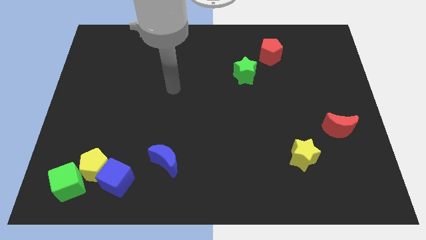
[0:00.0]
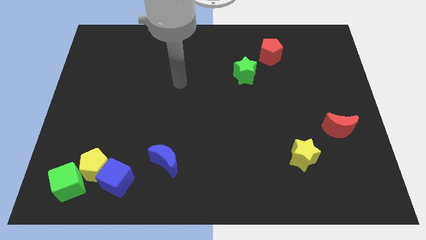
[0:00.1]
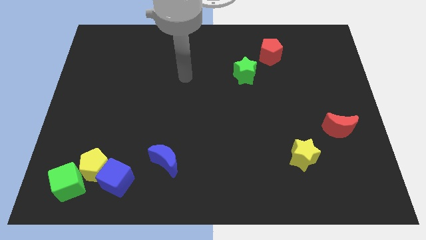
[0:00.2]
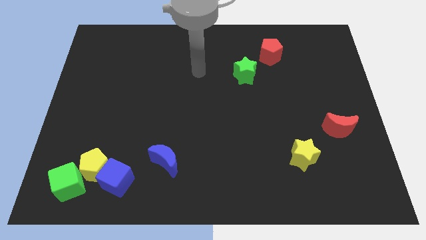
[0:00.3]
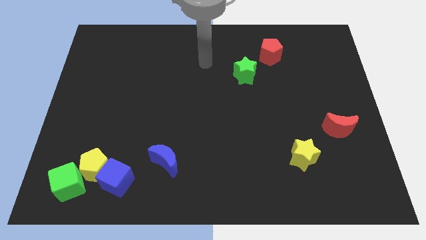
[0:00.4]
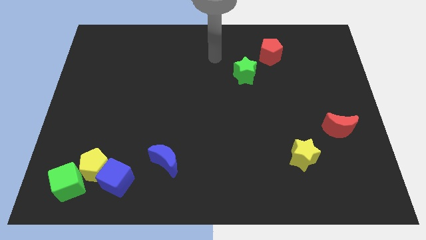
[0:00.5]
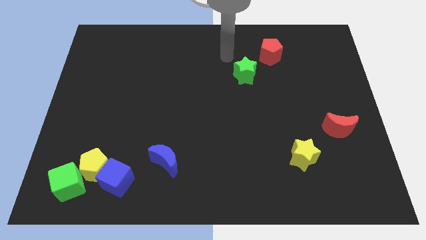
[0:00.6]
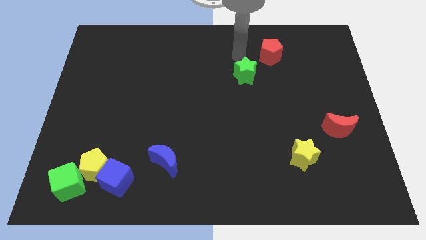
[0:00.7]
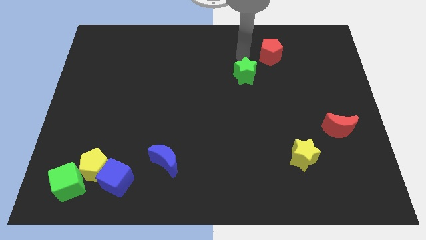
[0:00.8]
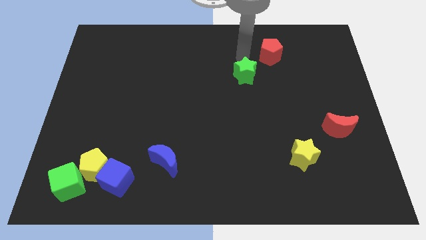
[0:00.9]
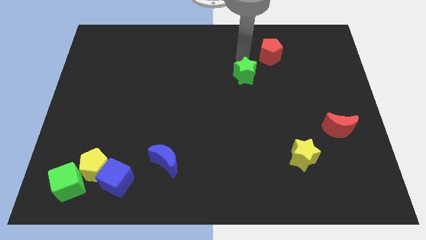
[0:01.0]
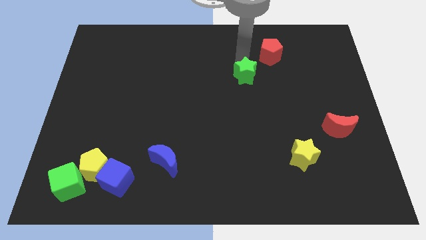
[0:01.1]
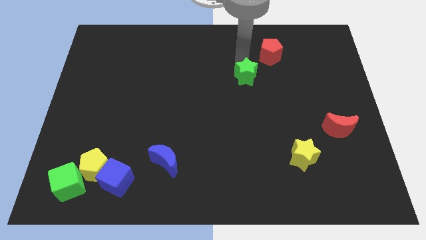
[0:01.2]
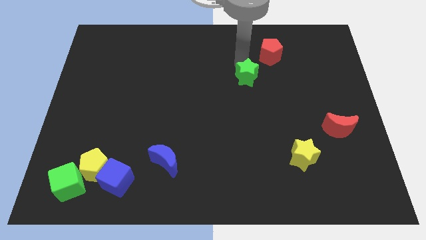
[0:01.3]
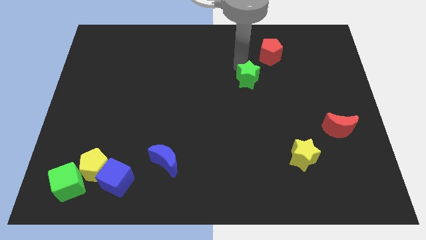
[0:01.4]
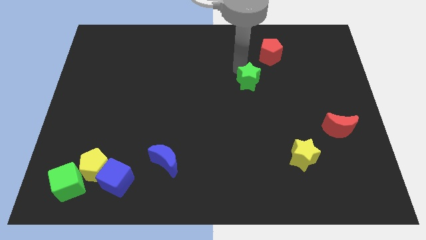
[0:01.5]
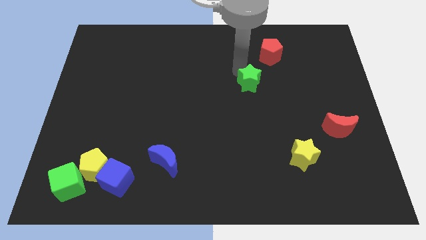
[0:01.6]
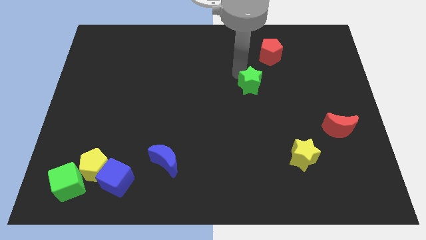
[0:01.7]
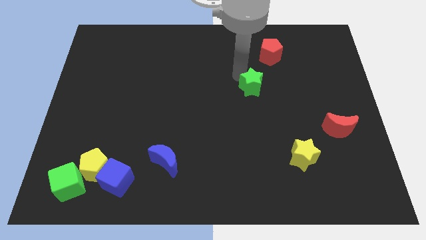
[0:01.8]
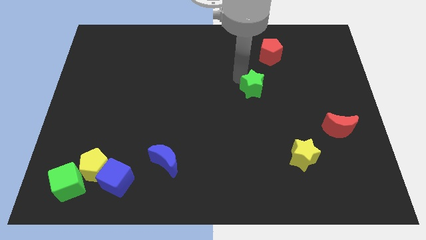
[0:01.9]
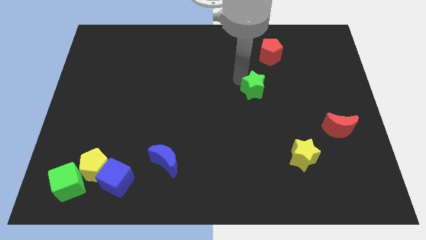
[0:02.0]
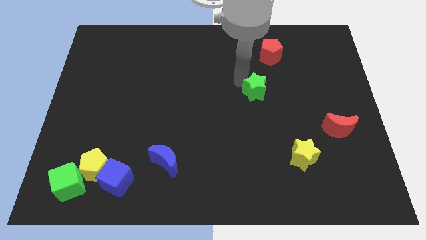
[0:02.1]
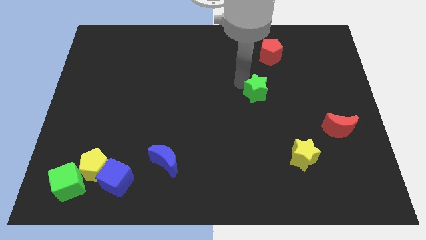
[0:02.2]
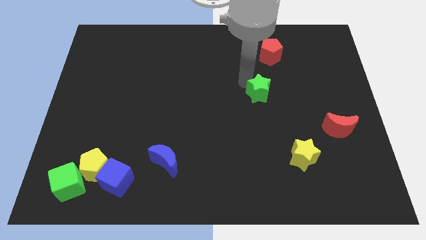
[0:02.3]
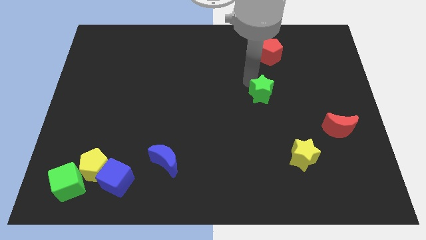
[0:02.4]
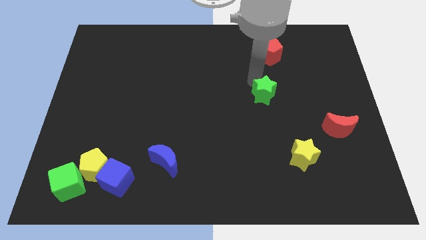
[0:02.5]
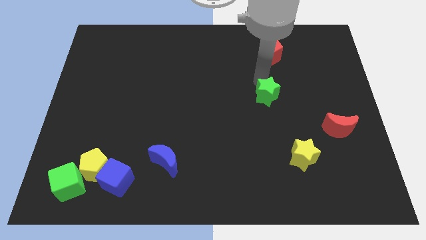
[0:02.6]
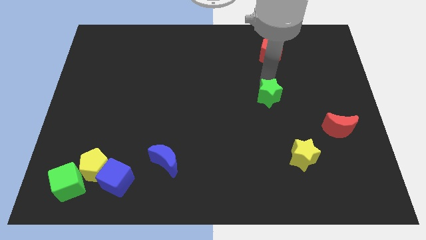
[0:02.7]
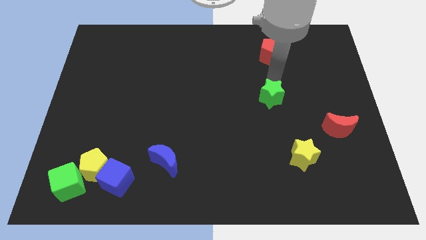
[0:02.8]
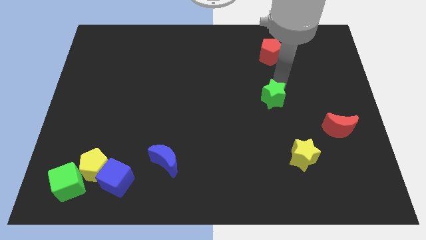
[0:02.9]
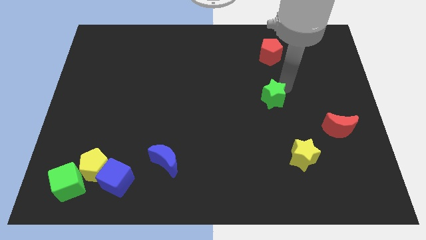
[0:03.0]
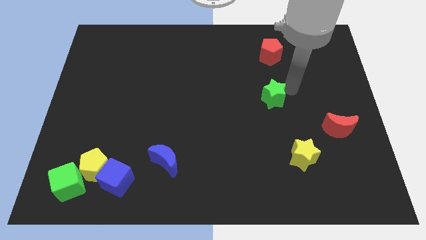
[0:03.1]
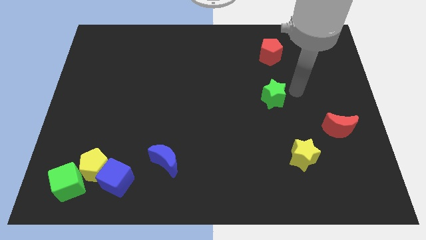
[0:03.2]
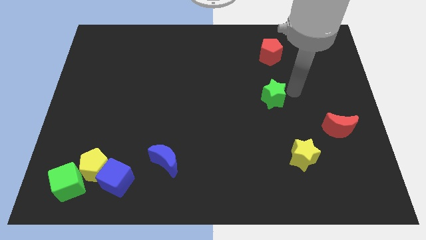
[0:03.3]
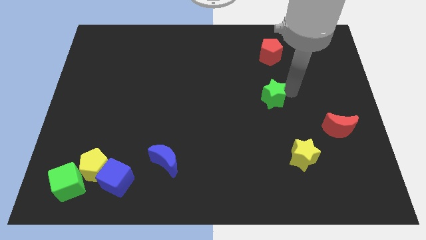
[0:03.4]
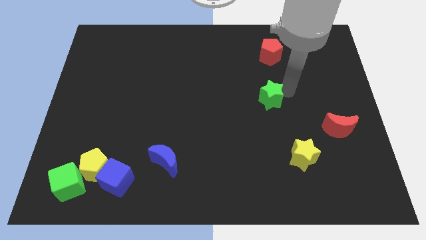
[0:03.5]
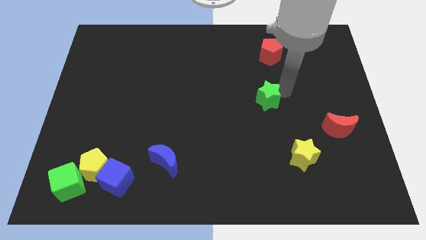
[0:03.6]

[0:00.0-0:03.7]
slide the green star a bit downwards

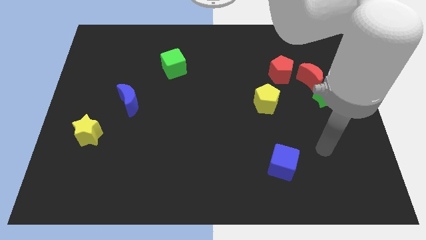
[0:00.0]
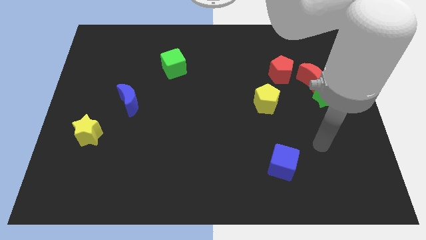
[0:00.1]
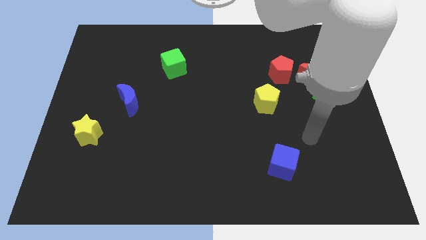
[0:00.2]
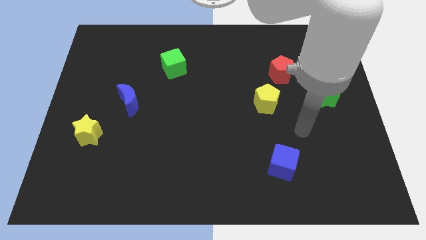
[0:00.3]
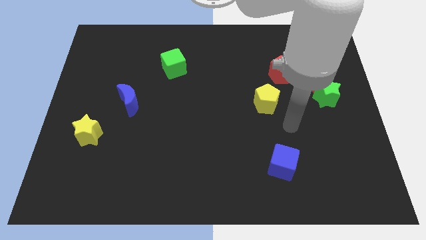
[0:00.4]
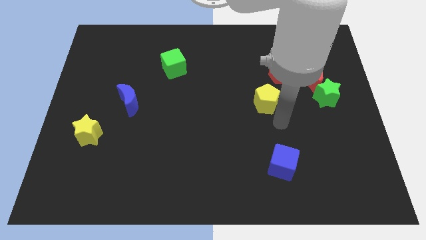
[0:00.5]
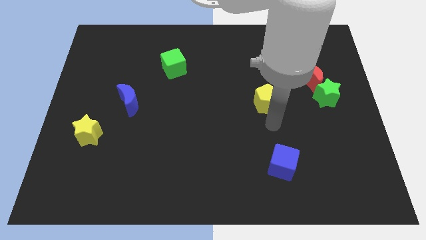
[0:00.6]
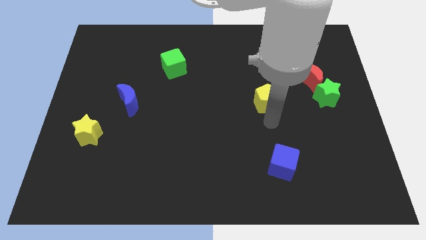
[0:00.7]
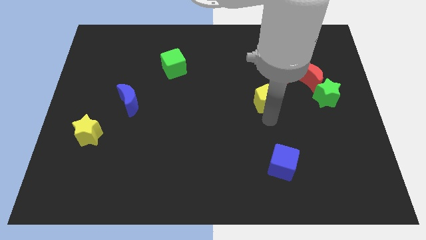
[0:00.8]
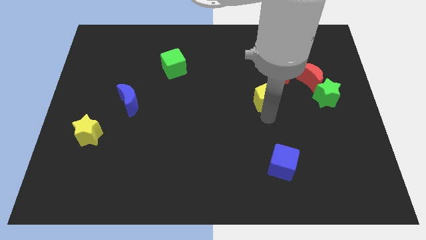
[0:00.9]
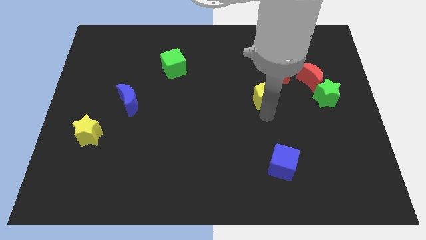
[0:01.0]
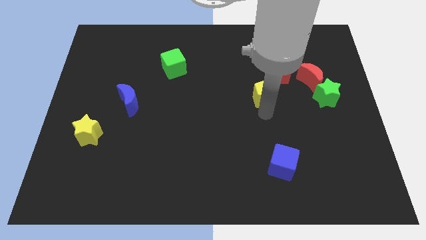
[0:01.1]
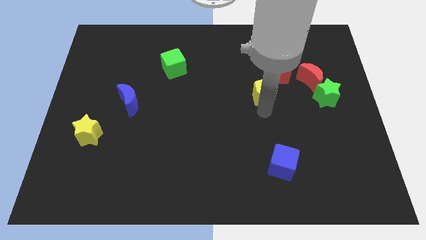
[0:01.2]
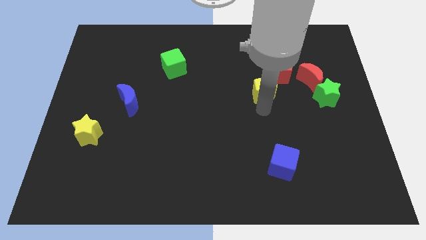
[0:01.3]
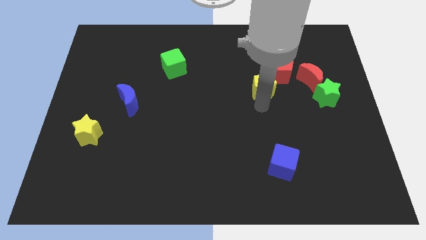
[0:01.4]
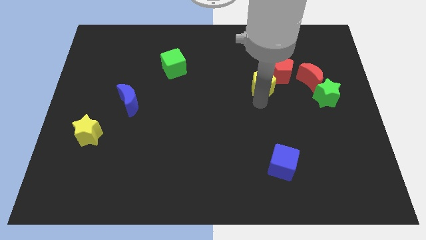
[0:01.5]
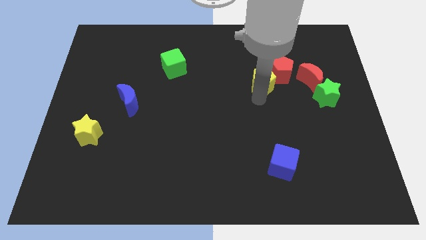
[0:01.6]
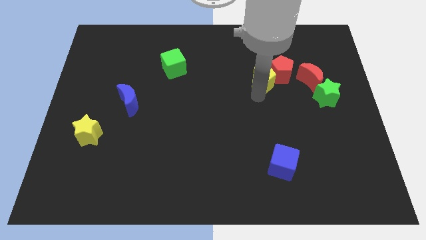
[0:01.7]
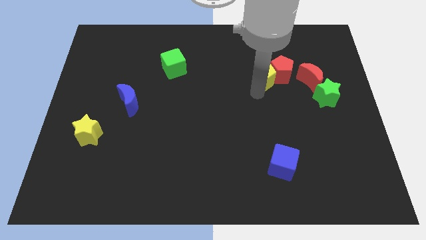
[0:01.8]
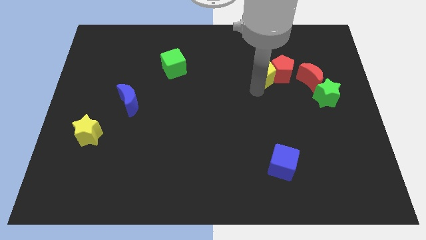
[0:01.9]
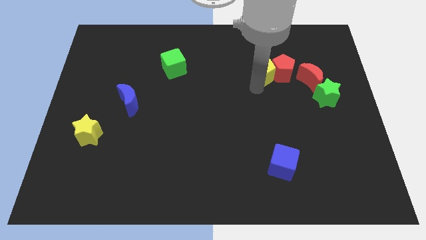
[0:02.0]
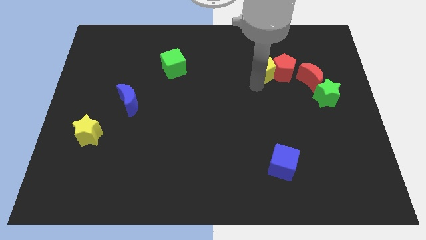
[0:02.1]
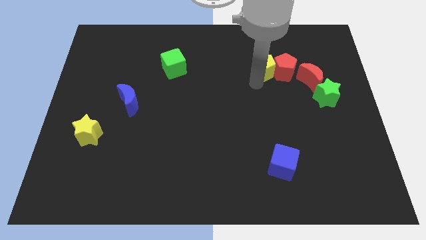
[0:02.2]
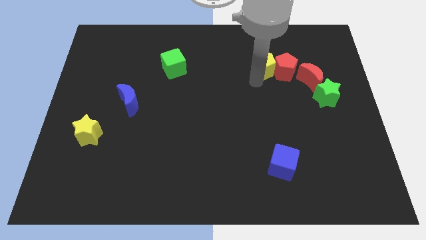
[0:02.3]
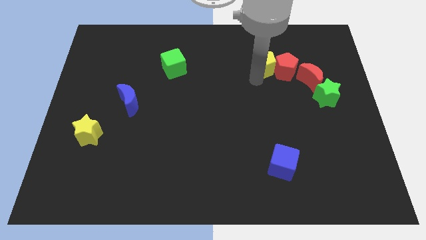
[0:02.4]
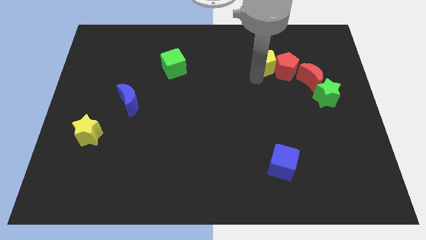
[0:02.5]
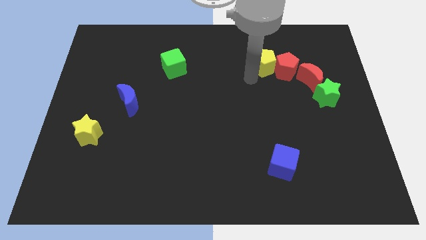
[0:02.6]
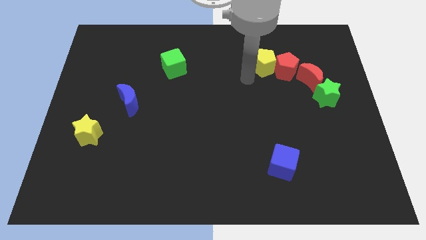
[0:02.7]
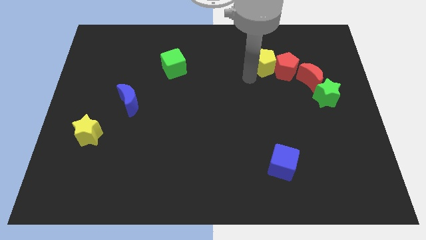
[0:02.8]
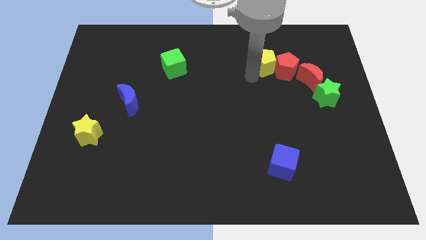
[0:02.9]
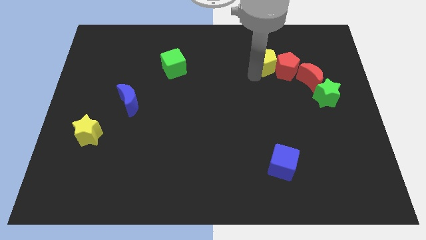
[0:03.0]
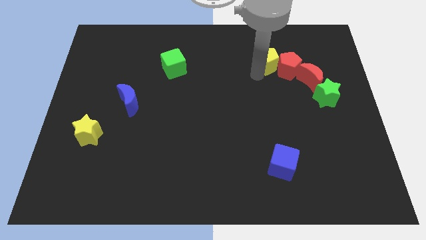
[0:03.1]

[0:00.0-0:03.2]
move the yellow pentagon somewhat upwards and to the right diagonally

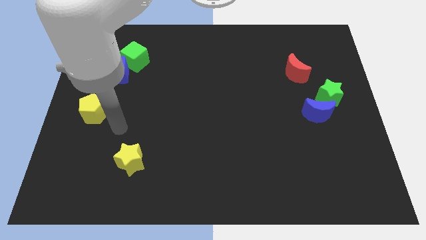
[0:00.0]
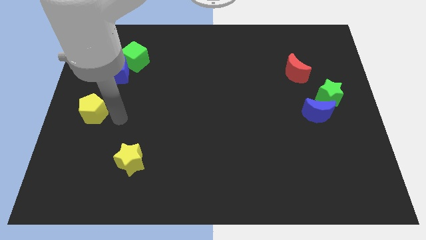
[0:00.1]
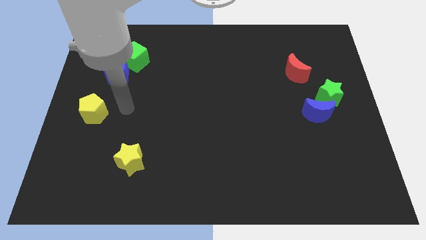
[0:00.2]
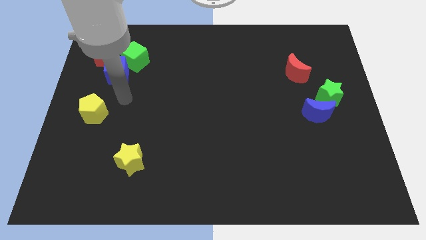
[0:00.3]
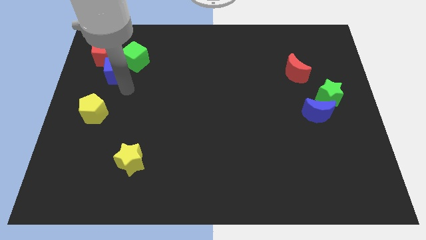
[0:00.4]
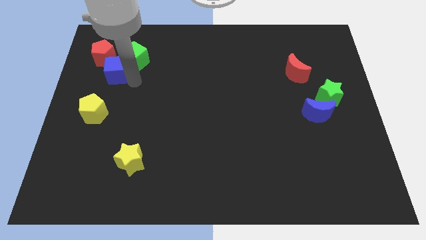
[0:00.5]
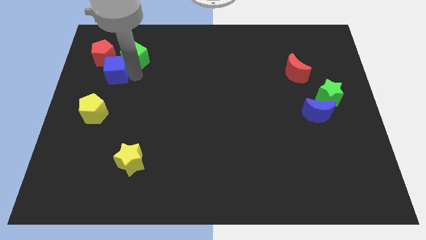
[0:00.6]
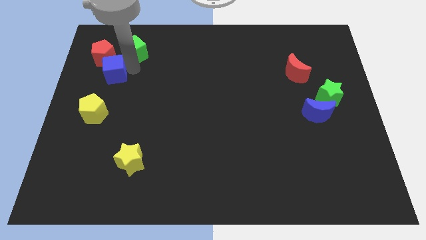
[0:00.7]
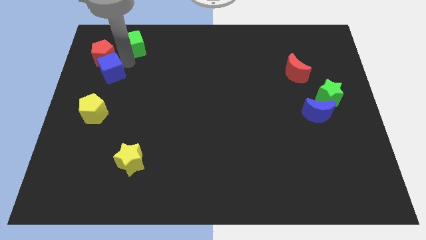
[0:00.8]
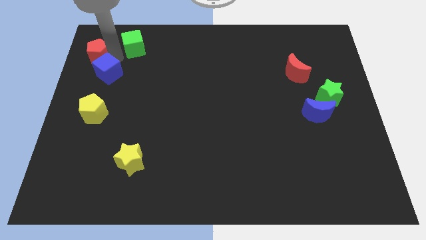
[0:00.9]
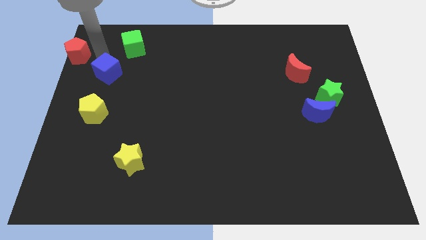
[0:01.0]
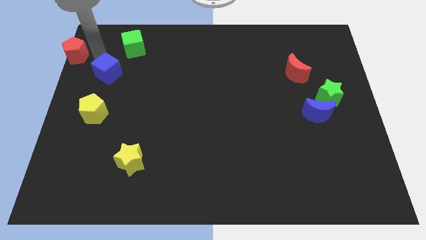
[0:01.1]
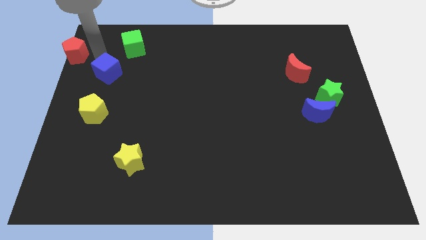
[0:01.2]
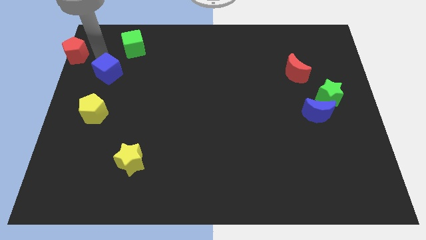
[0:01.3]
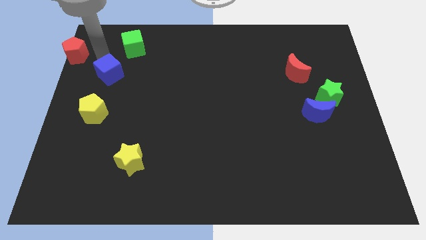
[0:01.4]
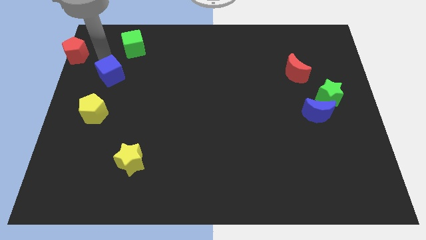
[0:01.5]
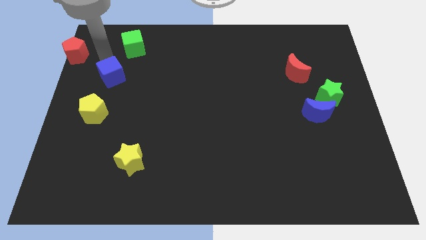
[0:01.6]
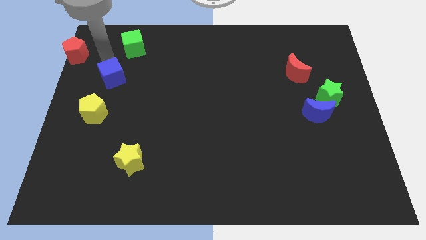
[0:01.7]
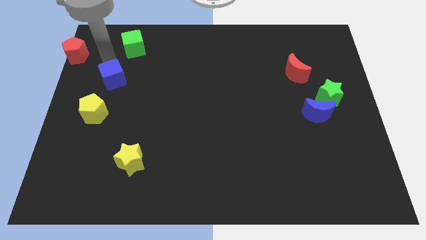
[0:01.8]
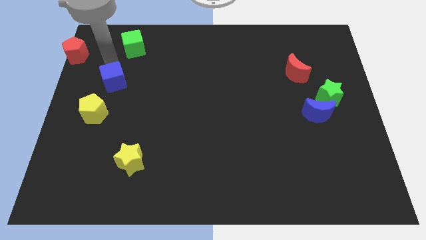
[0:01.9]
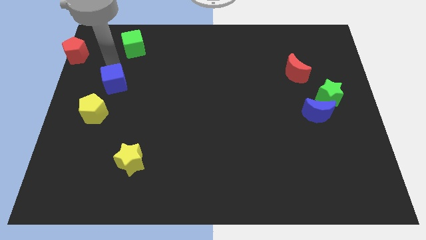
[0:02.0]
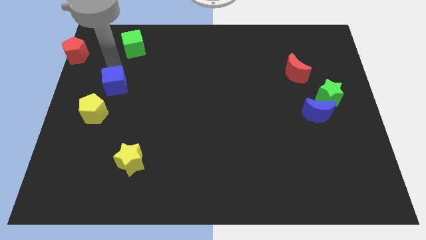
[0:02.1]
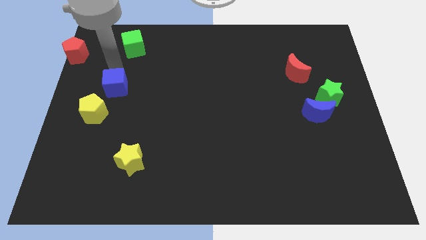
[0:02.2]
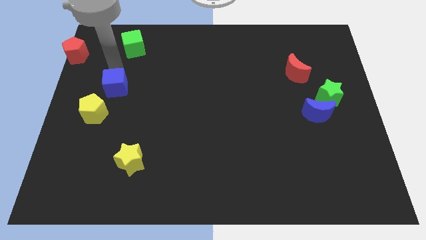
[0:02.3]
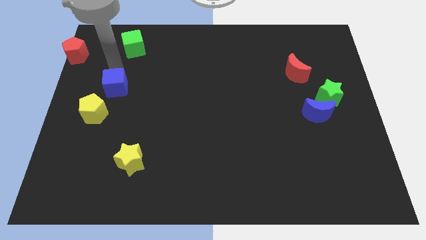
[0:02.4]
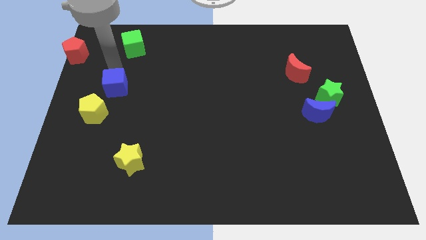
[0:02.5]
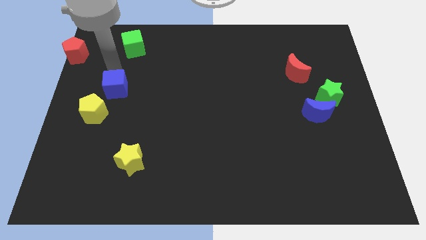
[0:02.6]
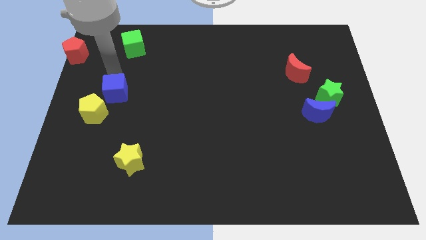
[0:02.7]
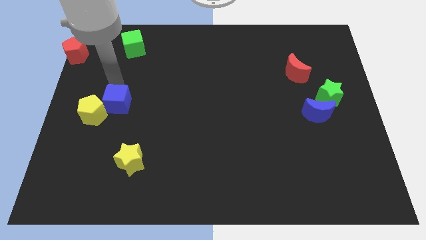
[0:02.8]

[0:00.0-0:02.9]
slightly slide the blue cube downwards
